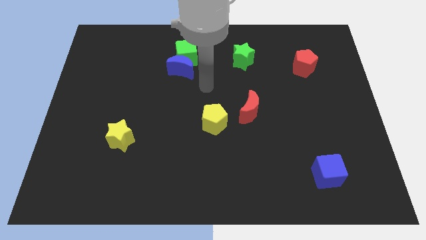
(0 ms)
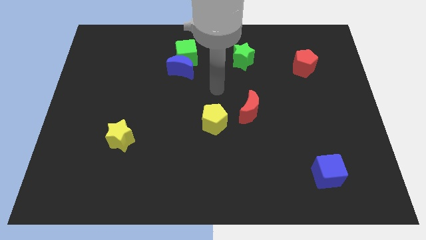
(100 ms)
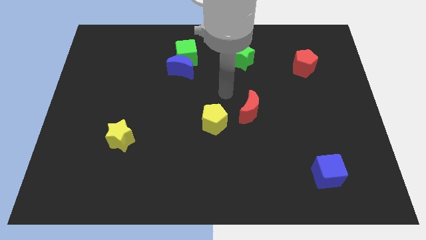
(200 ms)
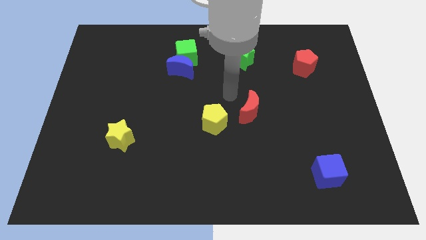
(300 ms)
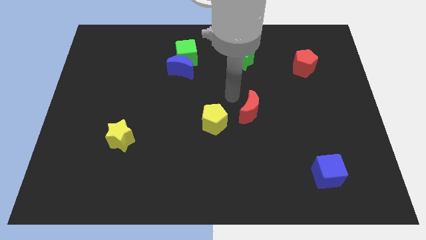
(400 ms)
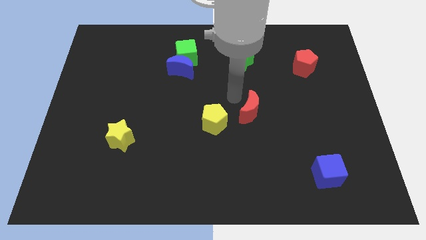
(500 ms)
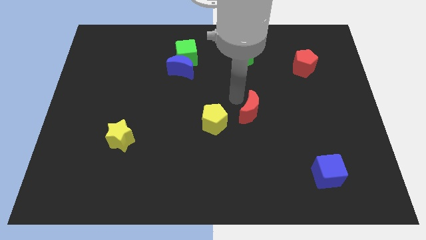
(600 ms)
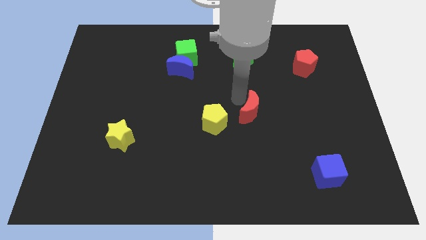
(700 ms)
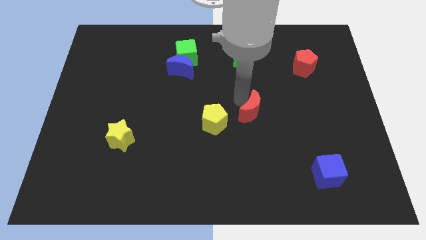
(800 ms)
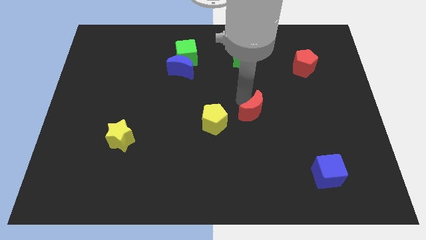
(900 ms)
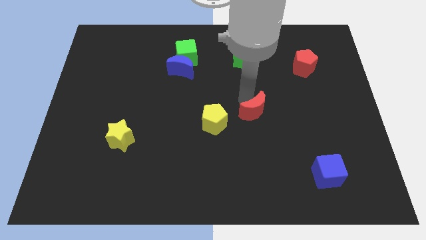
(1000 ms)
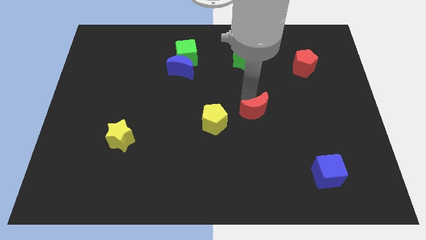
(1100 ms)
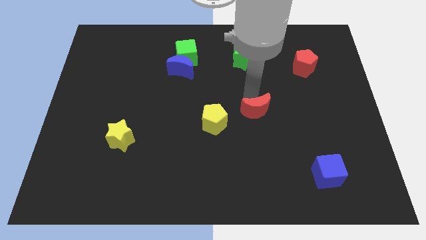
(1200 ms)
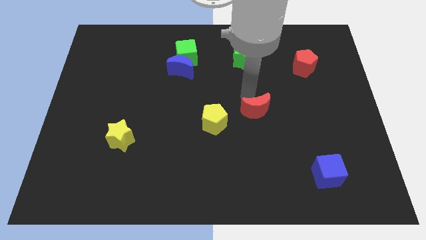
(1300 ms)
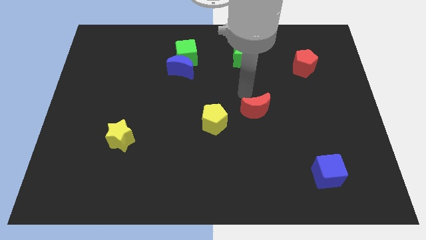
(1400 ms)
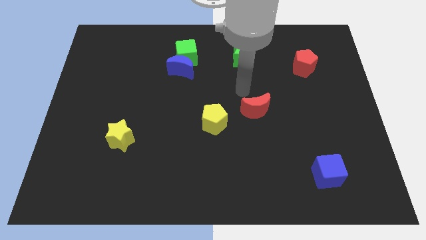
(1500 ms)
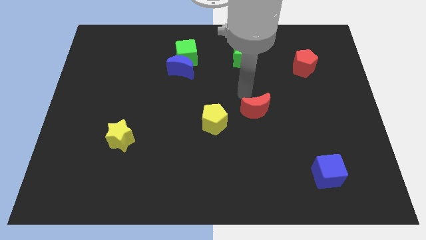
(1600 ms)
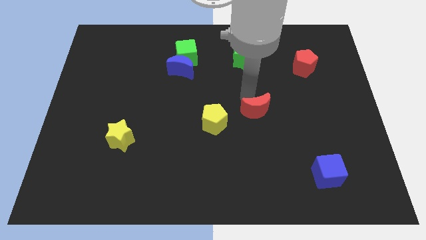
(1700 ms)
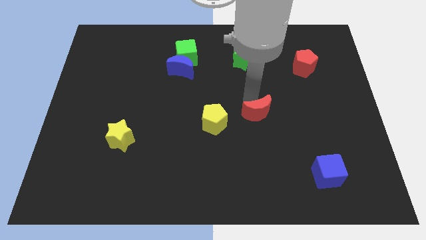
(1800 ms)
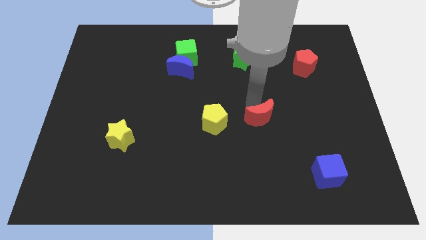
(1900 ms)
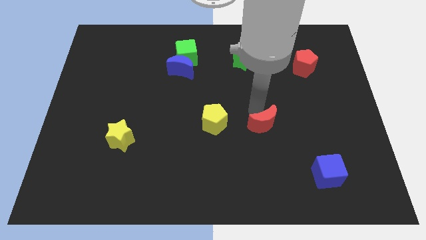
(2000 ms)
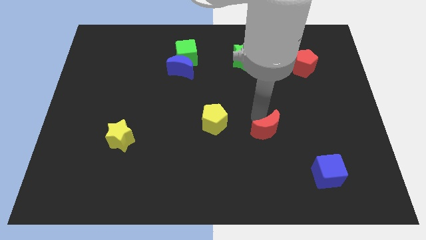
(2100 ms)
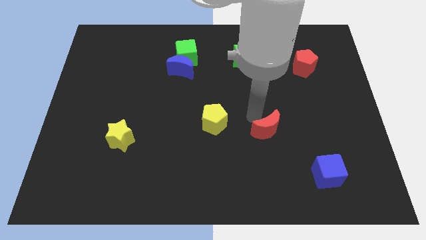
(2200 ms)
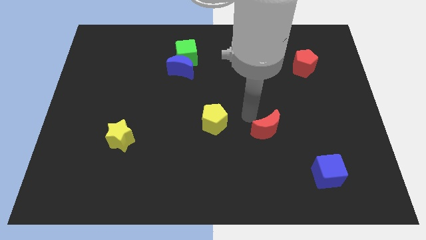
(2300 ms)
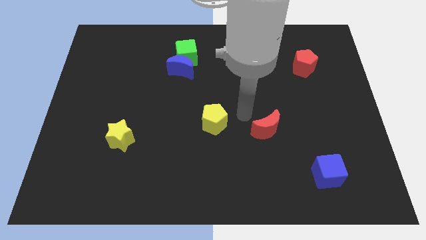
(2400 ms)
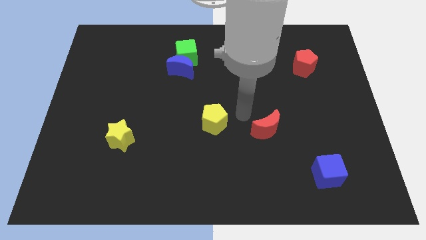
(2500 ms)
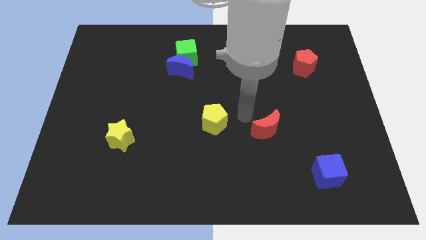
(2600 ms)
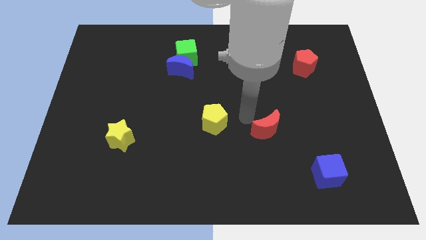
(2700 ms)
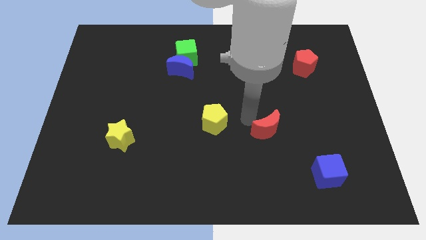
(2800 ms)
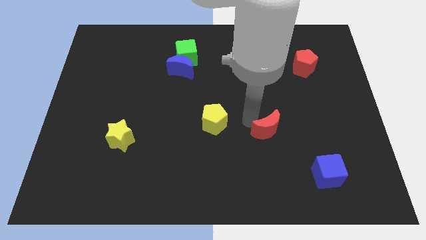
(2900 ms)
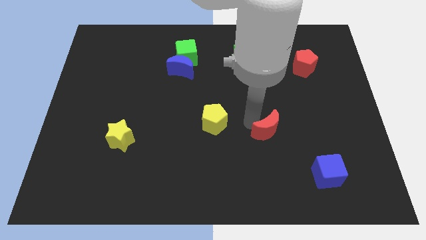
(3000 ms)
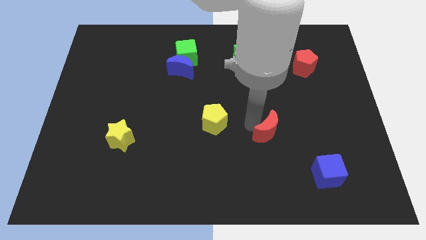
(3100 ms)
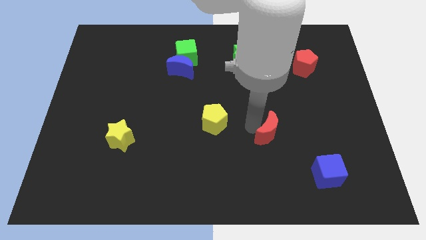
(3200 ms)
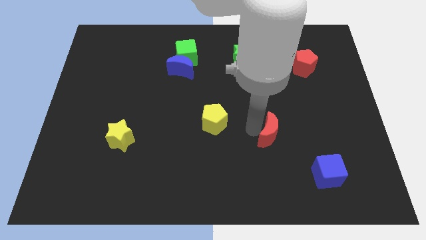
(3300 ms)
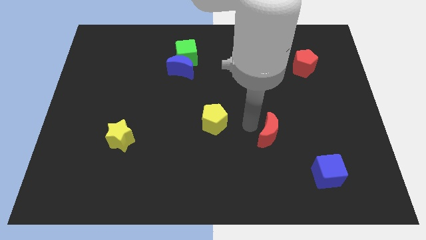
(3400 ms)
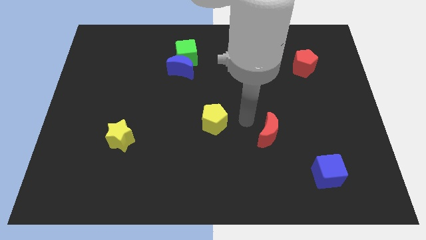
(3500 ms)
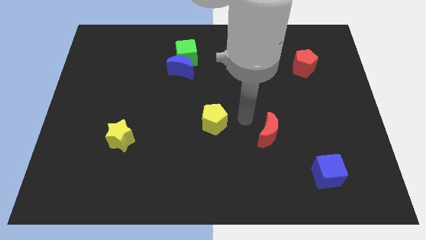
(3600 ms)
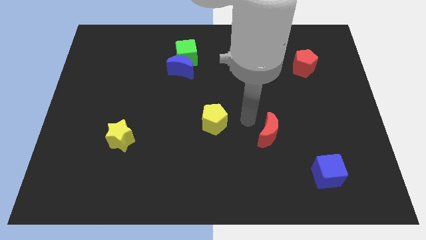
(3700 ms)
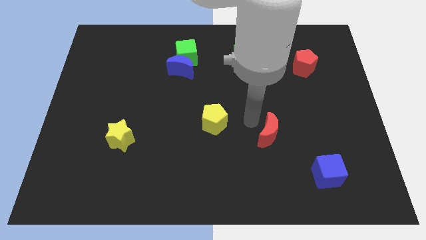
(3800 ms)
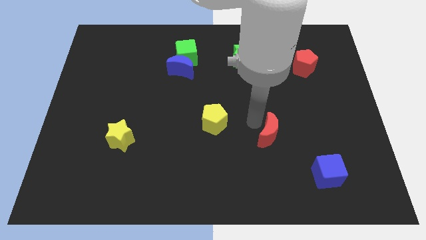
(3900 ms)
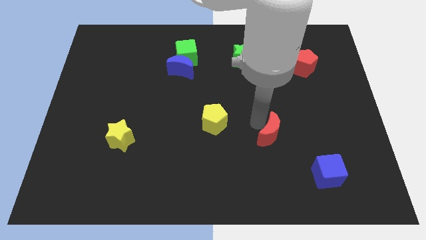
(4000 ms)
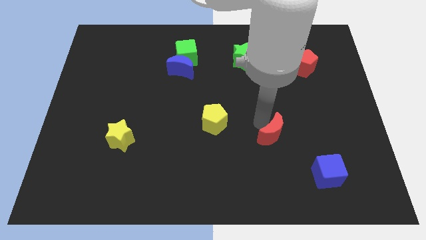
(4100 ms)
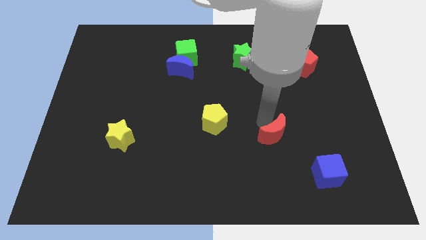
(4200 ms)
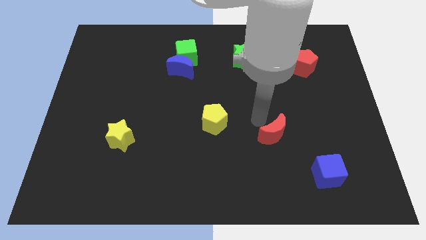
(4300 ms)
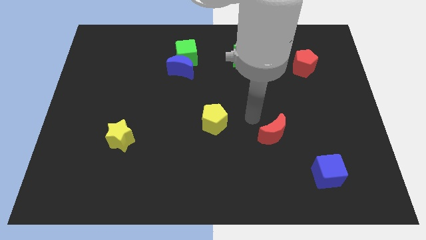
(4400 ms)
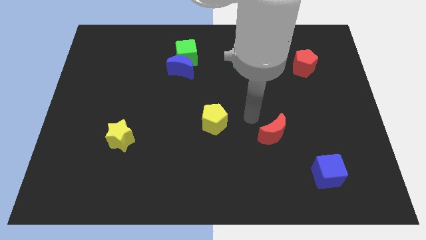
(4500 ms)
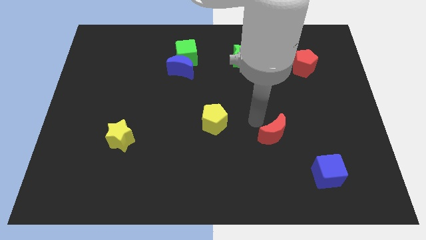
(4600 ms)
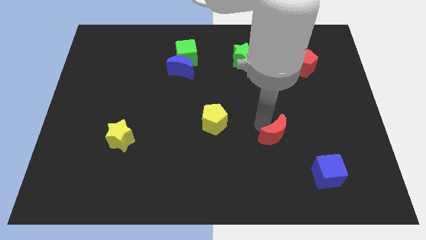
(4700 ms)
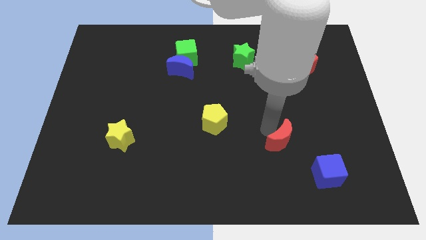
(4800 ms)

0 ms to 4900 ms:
push the red moon to the top left of the blue cube

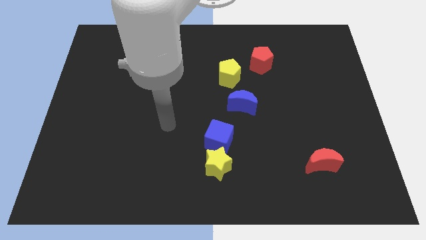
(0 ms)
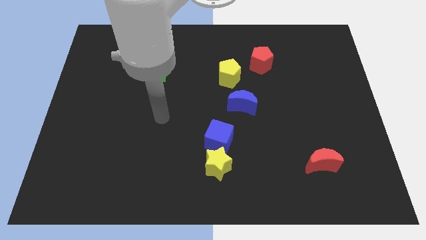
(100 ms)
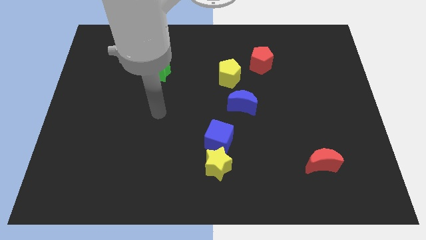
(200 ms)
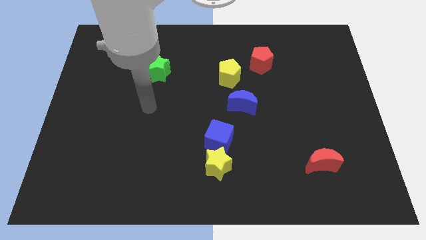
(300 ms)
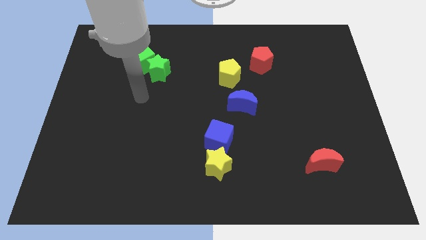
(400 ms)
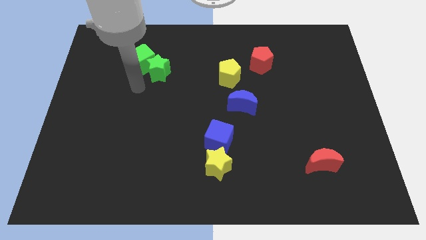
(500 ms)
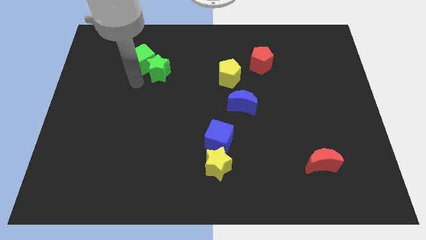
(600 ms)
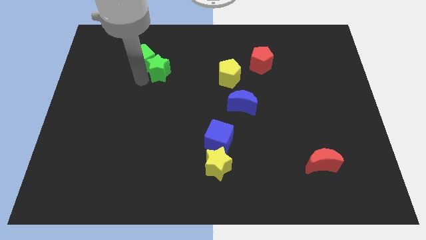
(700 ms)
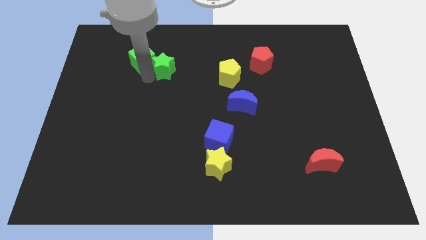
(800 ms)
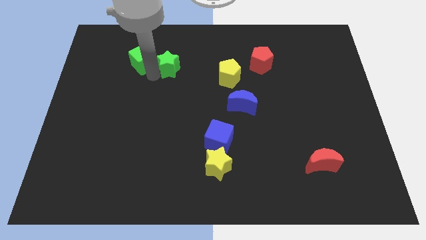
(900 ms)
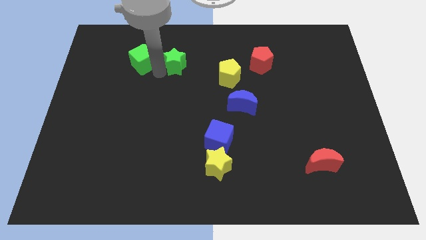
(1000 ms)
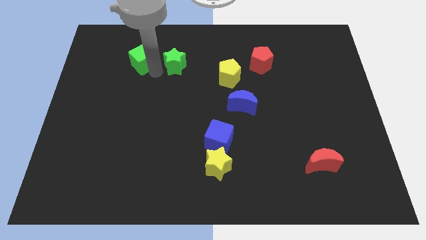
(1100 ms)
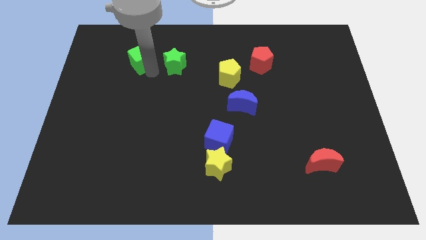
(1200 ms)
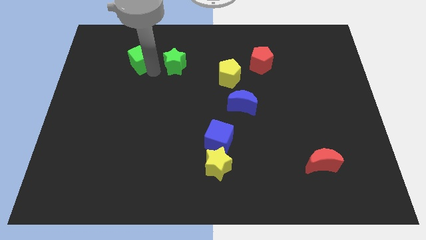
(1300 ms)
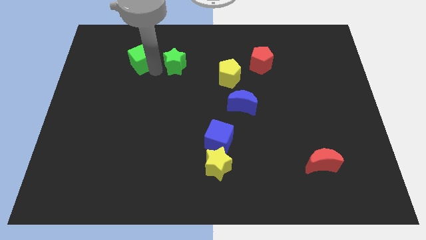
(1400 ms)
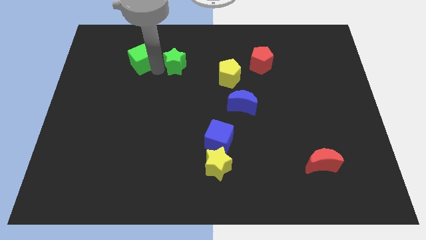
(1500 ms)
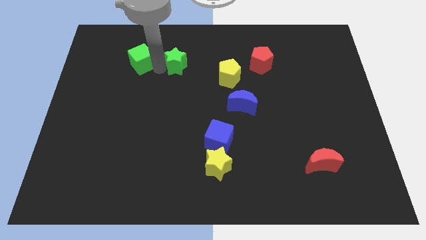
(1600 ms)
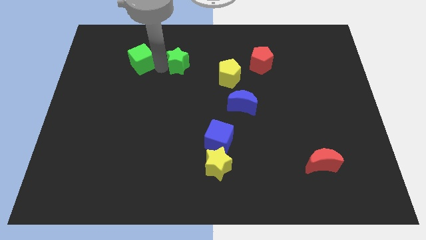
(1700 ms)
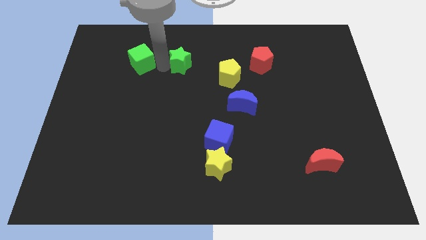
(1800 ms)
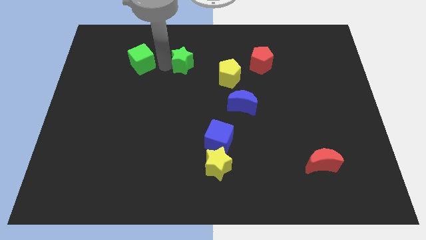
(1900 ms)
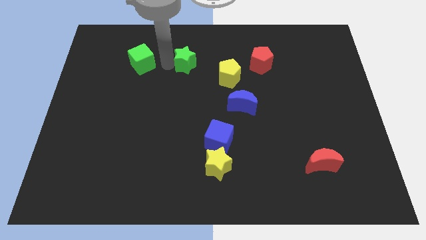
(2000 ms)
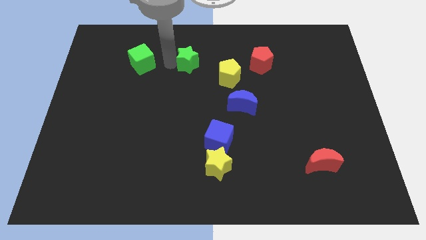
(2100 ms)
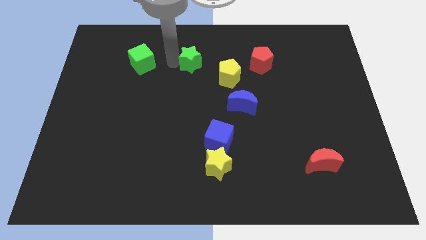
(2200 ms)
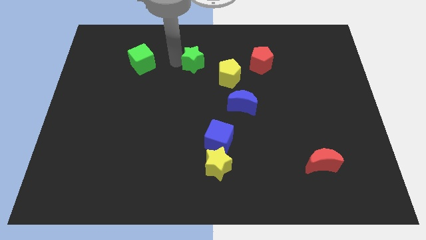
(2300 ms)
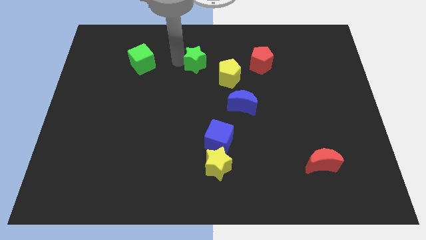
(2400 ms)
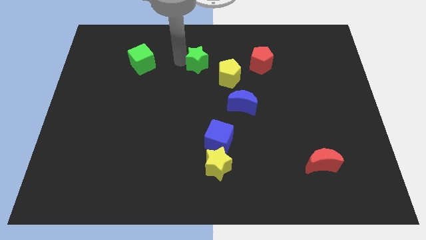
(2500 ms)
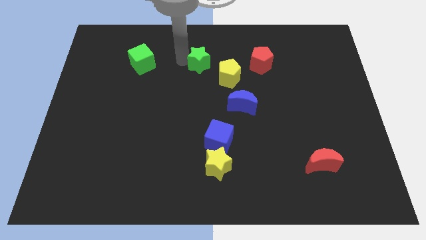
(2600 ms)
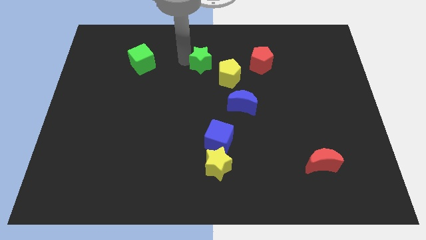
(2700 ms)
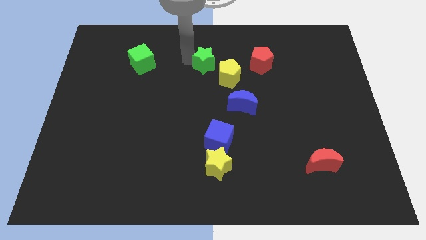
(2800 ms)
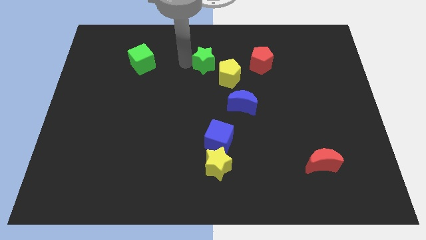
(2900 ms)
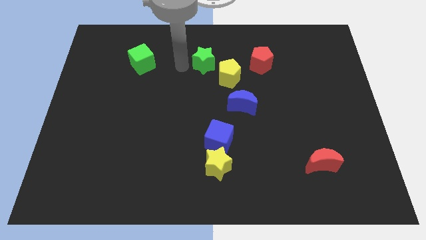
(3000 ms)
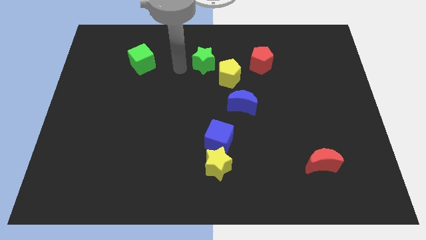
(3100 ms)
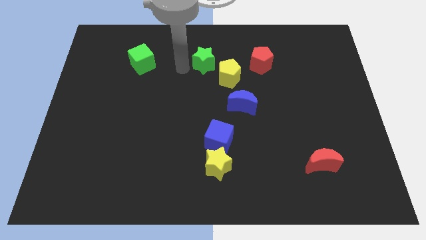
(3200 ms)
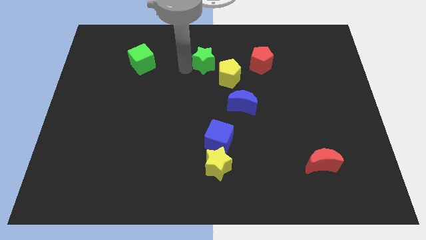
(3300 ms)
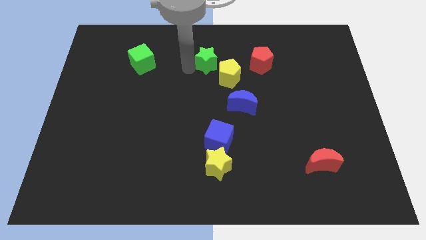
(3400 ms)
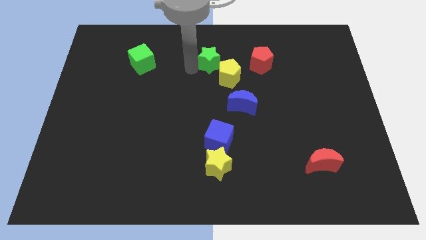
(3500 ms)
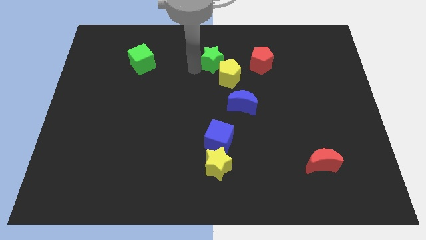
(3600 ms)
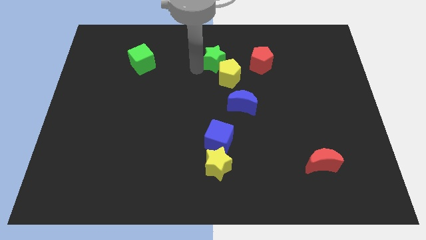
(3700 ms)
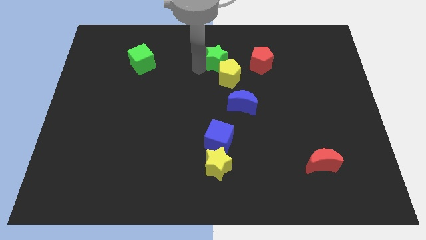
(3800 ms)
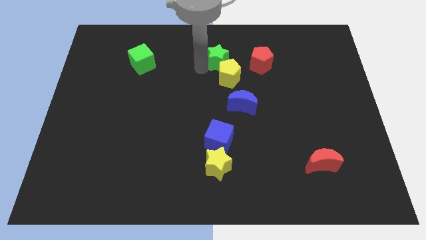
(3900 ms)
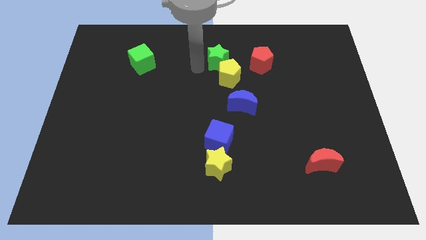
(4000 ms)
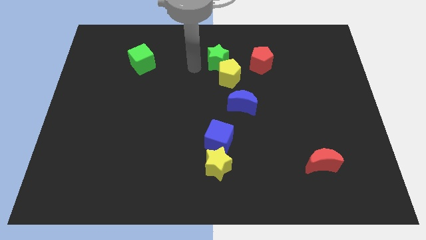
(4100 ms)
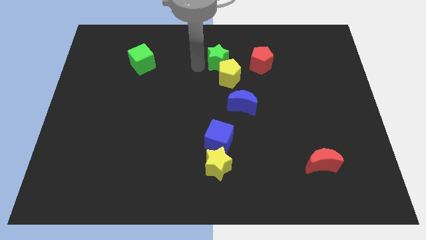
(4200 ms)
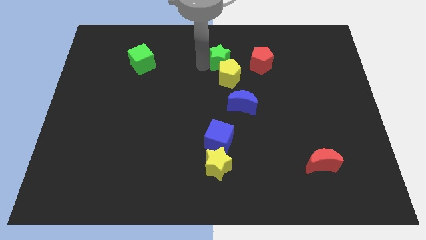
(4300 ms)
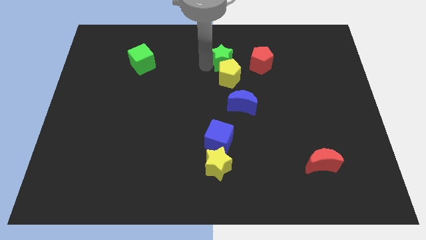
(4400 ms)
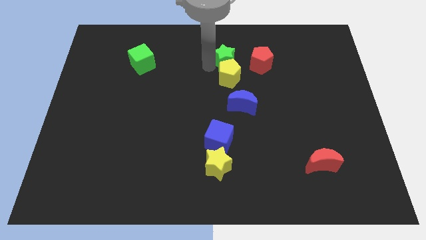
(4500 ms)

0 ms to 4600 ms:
push the green star to the top of the blue moon
